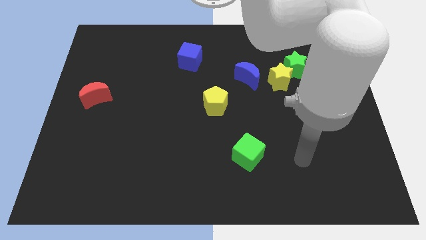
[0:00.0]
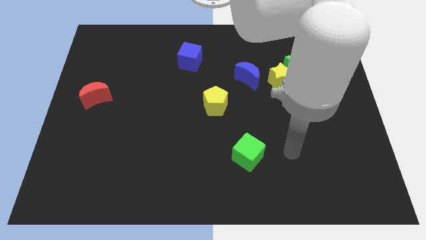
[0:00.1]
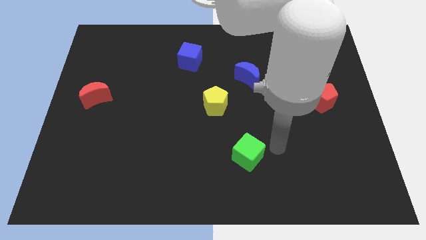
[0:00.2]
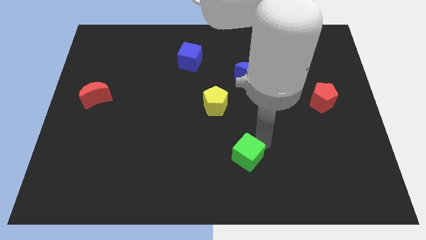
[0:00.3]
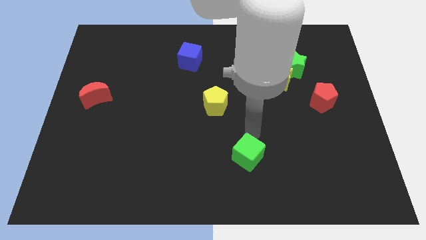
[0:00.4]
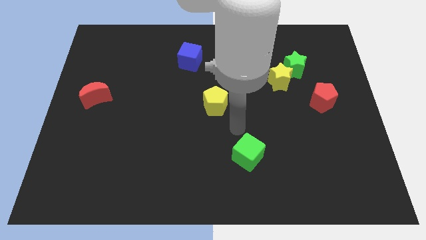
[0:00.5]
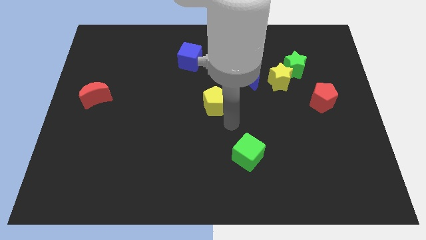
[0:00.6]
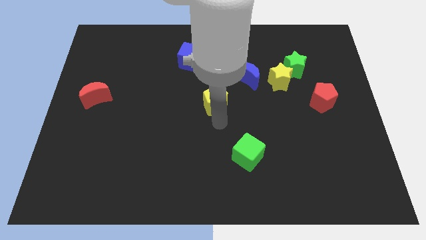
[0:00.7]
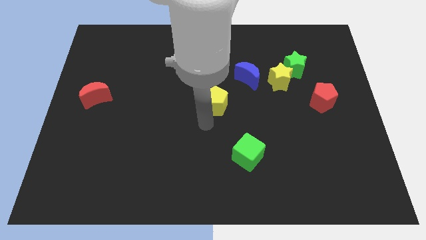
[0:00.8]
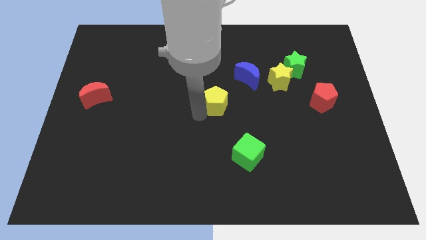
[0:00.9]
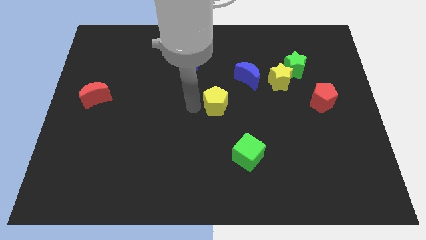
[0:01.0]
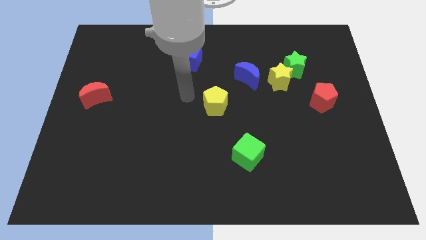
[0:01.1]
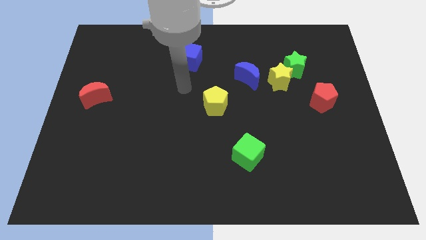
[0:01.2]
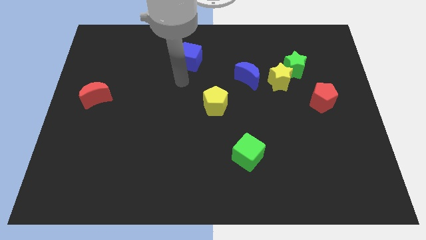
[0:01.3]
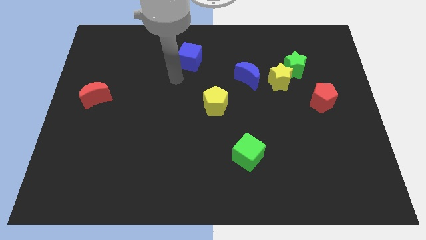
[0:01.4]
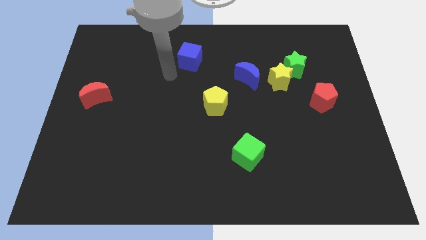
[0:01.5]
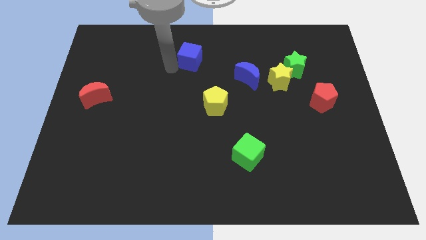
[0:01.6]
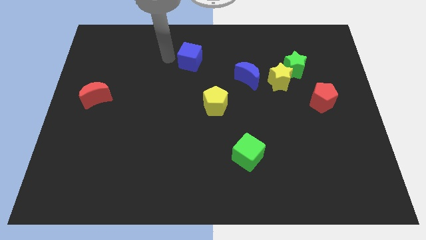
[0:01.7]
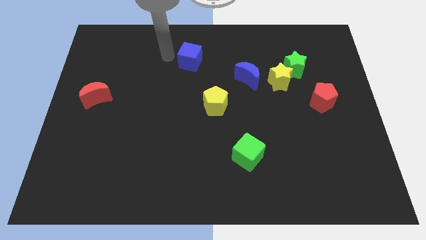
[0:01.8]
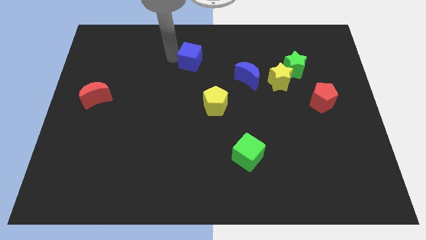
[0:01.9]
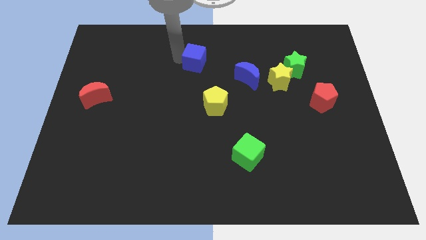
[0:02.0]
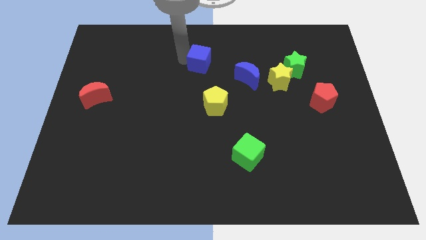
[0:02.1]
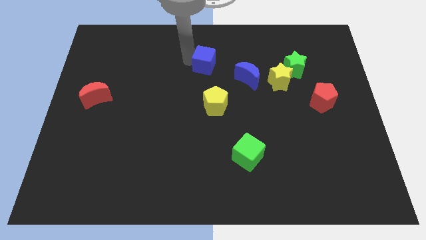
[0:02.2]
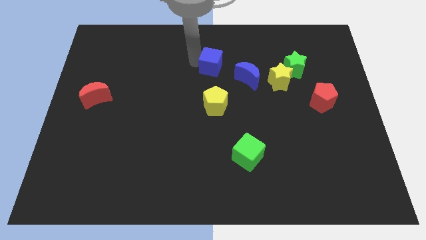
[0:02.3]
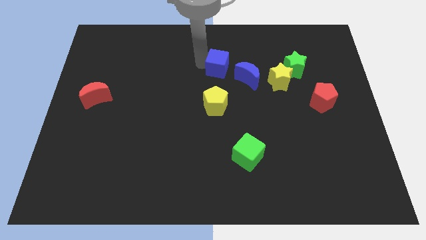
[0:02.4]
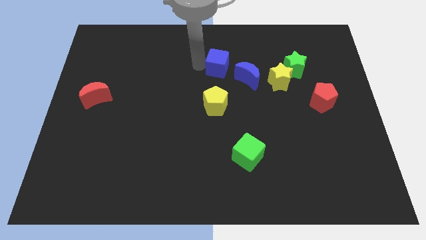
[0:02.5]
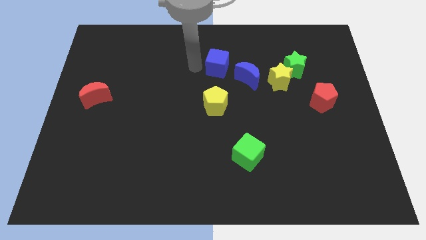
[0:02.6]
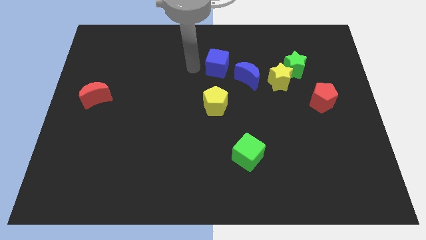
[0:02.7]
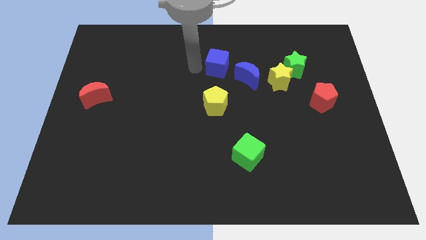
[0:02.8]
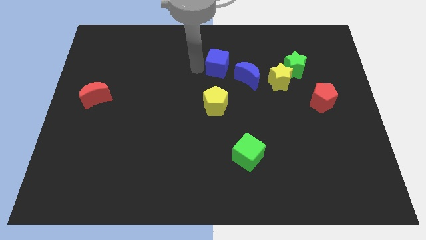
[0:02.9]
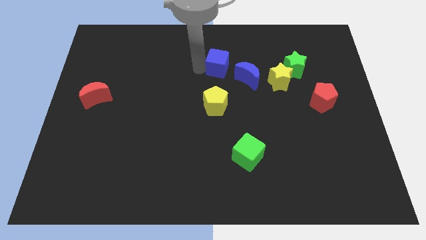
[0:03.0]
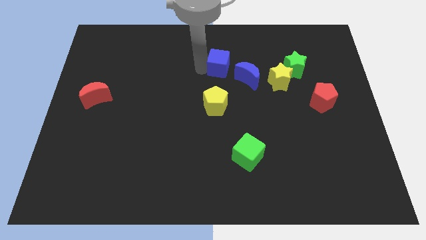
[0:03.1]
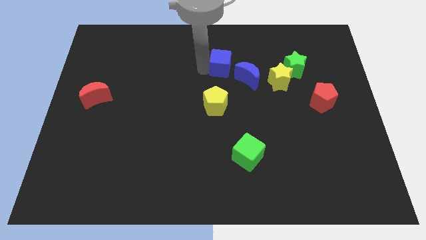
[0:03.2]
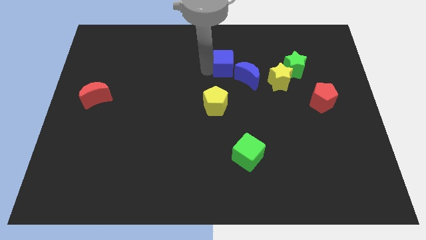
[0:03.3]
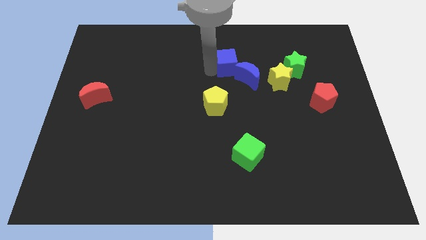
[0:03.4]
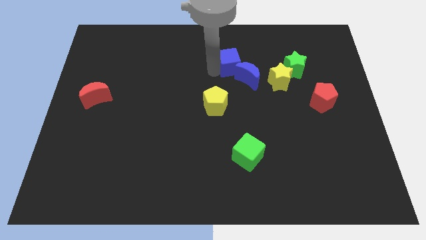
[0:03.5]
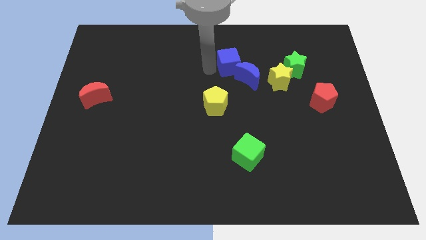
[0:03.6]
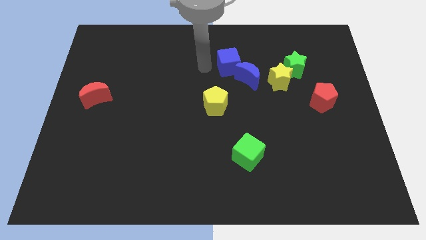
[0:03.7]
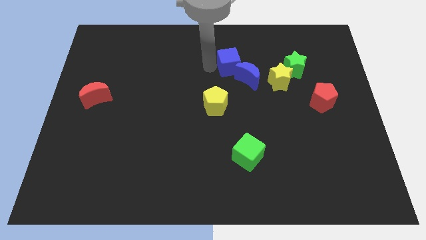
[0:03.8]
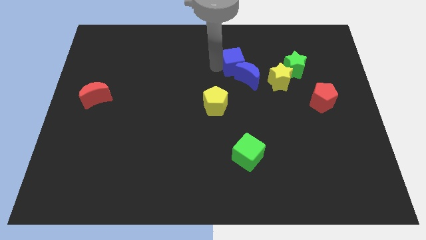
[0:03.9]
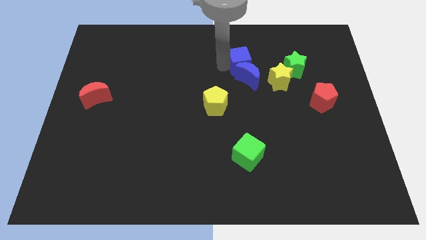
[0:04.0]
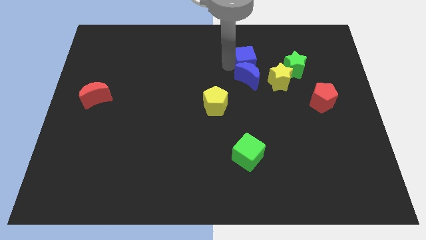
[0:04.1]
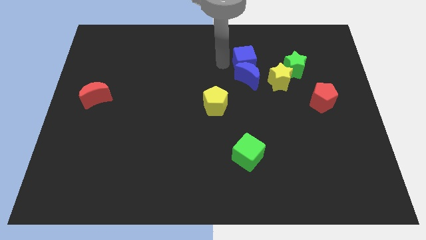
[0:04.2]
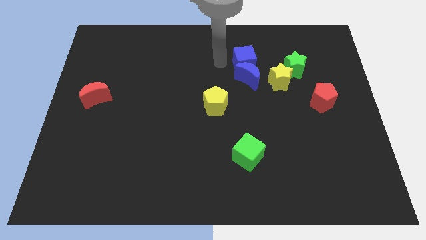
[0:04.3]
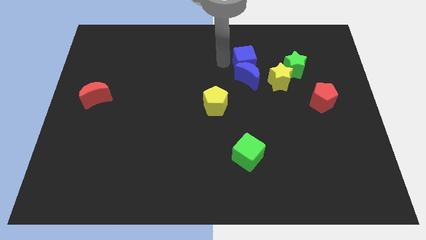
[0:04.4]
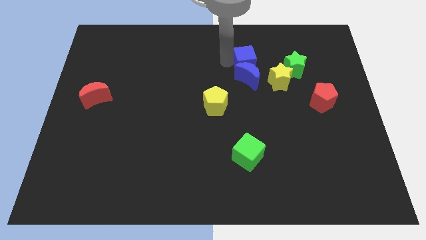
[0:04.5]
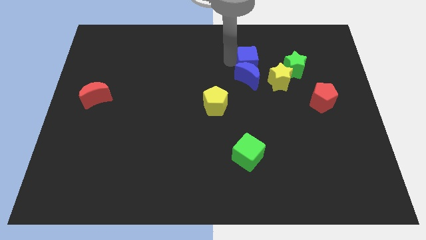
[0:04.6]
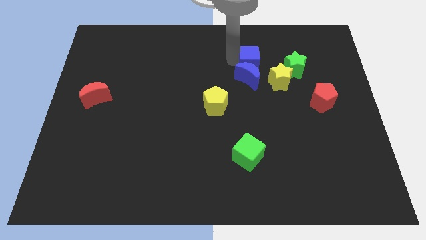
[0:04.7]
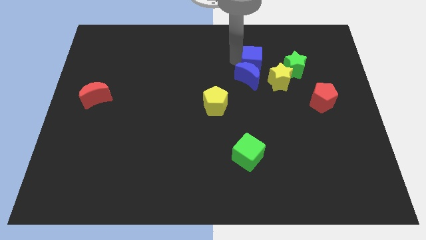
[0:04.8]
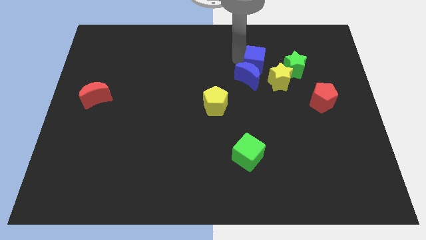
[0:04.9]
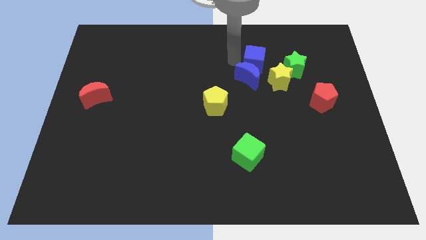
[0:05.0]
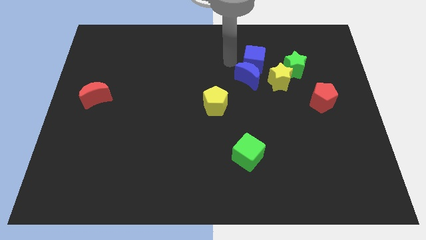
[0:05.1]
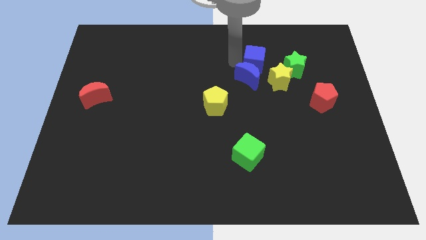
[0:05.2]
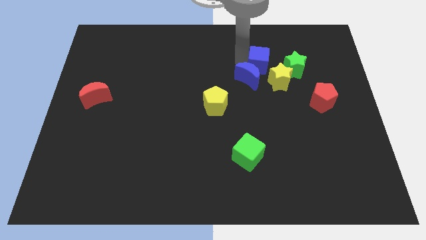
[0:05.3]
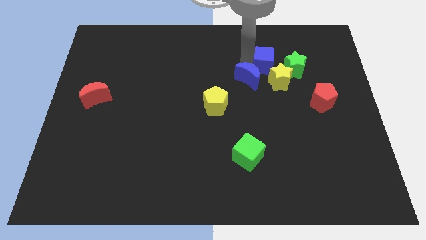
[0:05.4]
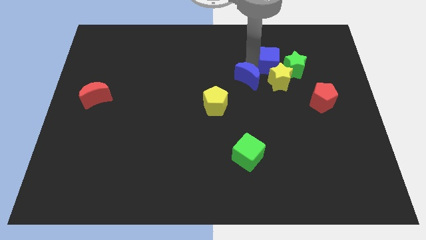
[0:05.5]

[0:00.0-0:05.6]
put the blue cube to the green star

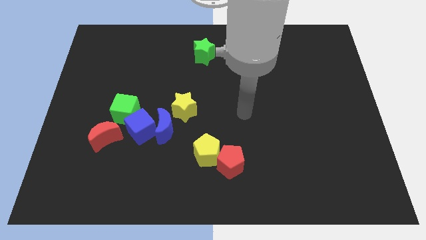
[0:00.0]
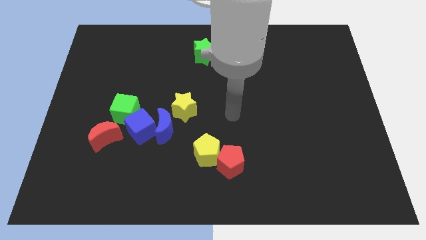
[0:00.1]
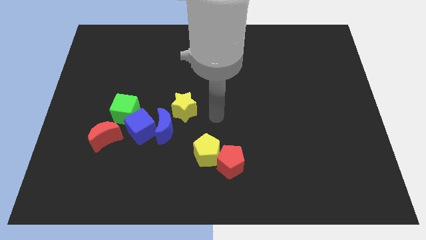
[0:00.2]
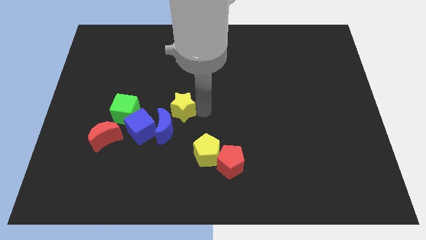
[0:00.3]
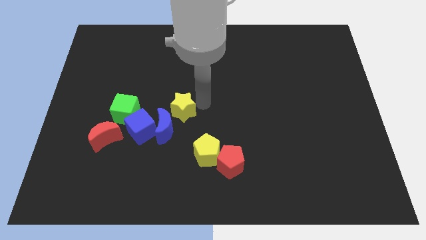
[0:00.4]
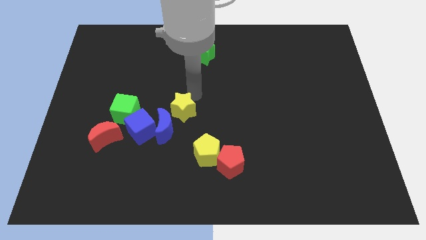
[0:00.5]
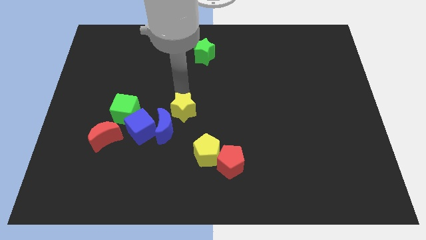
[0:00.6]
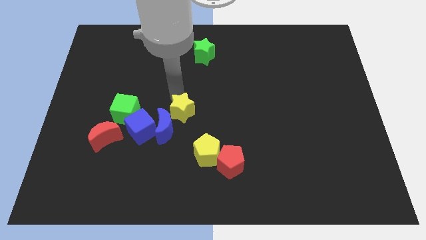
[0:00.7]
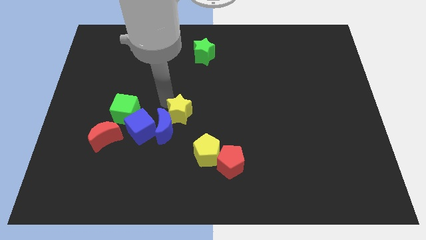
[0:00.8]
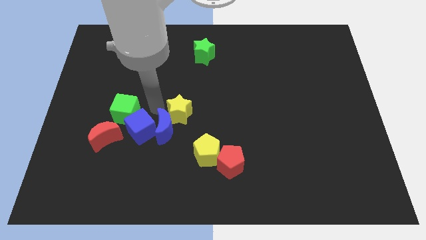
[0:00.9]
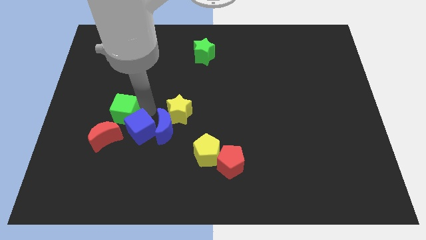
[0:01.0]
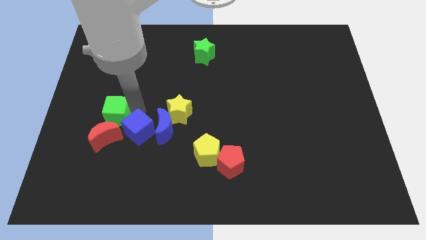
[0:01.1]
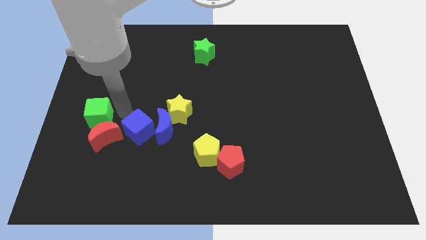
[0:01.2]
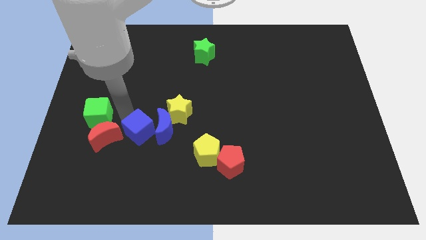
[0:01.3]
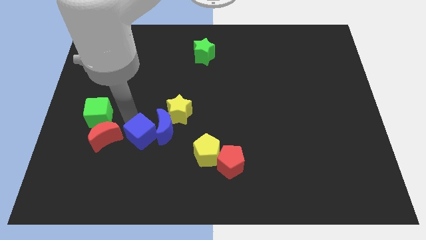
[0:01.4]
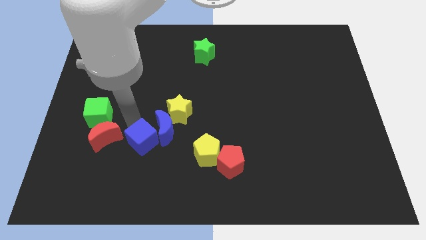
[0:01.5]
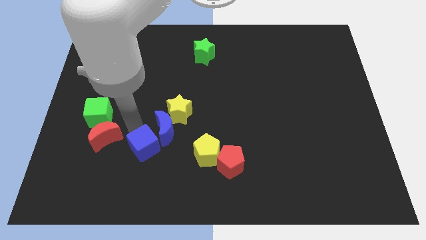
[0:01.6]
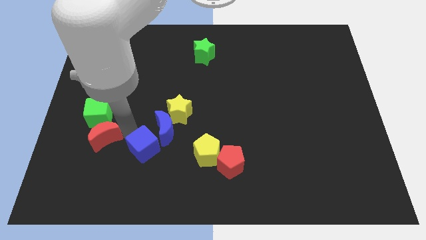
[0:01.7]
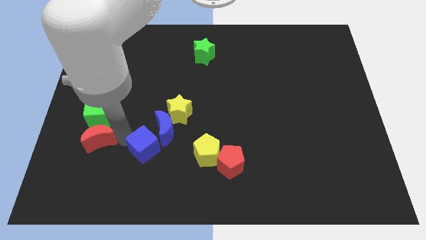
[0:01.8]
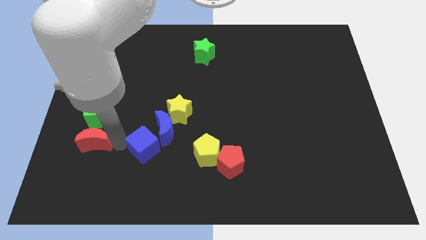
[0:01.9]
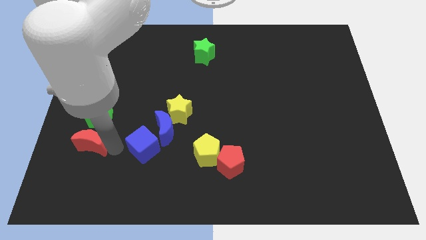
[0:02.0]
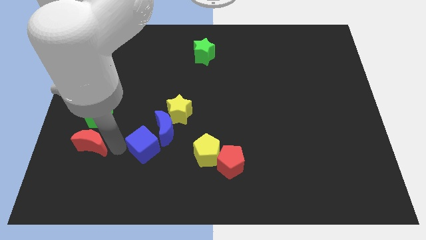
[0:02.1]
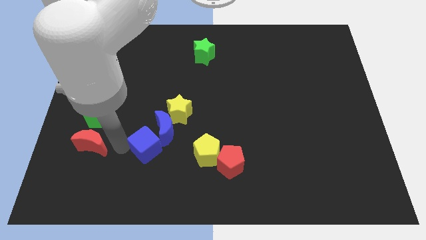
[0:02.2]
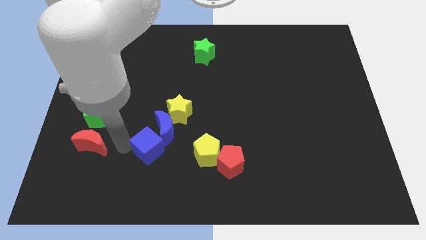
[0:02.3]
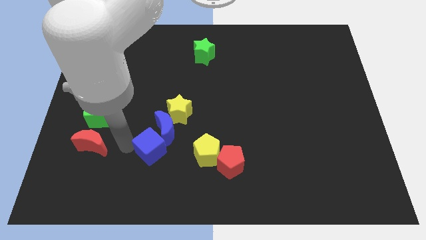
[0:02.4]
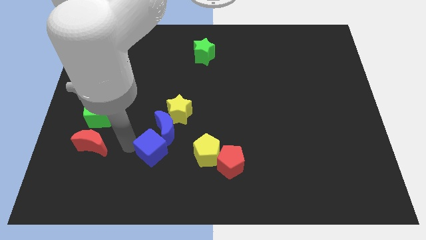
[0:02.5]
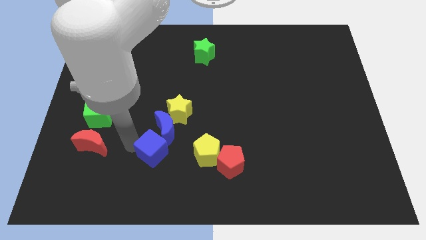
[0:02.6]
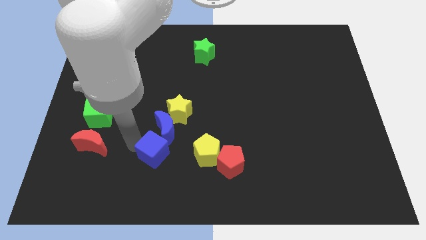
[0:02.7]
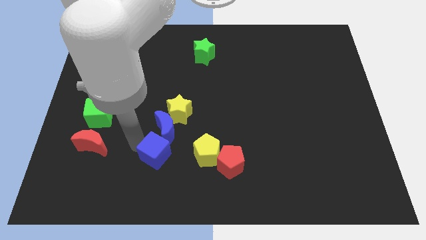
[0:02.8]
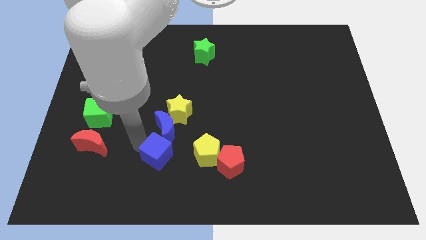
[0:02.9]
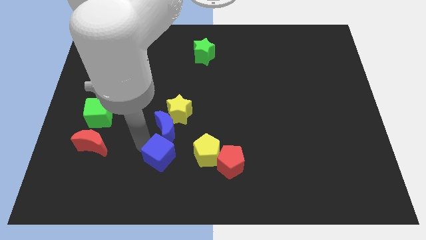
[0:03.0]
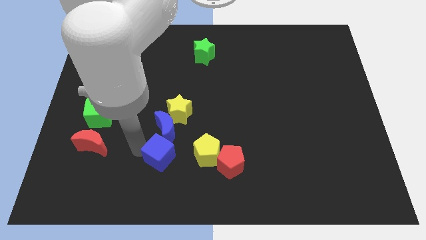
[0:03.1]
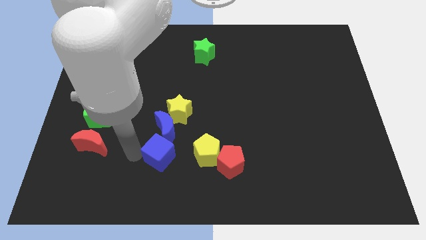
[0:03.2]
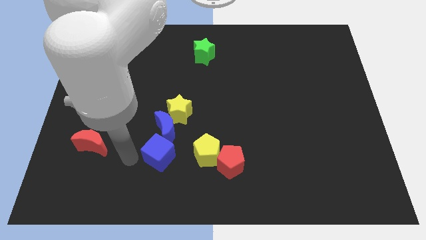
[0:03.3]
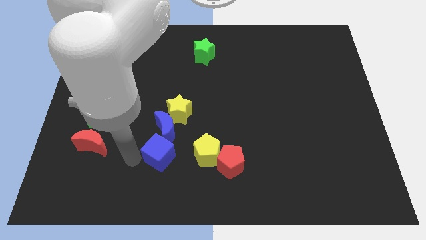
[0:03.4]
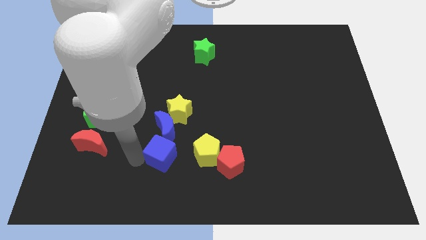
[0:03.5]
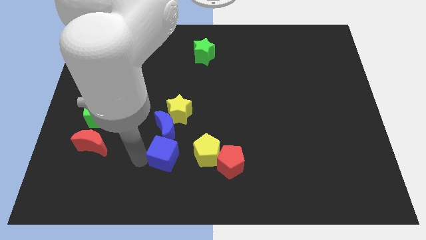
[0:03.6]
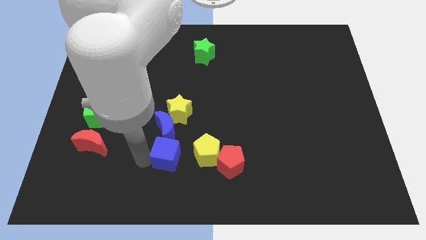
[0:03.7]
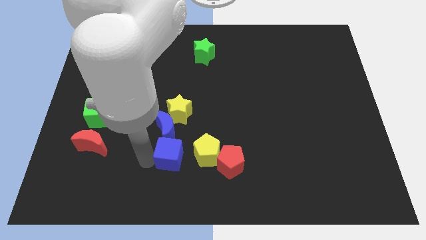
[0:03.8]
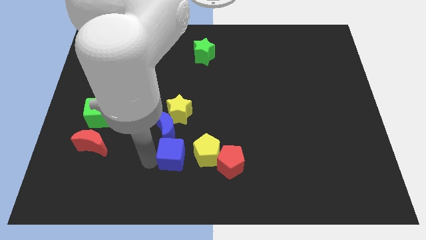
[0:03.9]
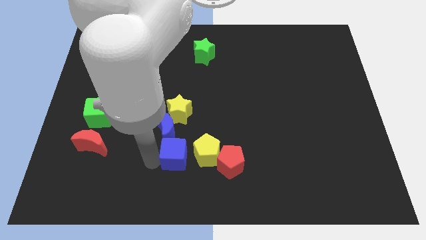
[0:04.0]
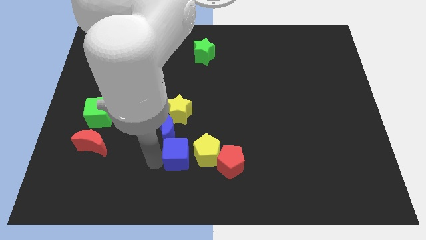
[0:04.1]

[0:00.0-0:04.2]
slide the blue cube close to the yellow pentagon
